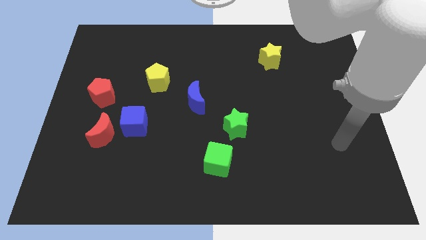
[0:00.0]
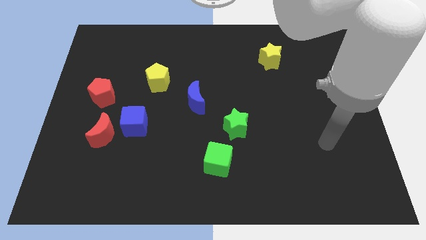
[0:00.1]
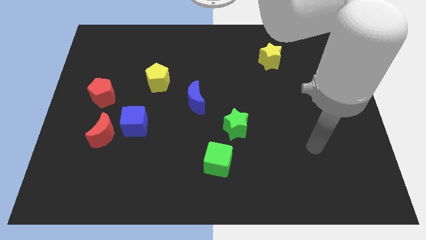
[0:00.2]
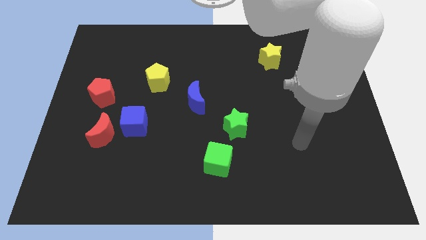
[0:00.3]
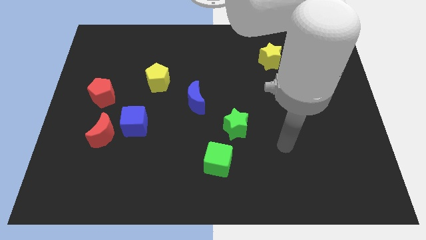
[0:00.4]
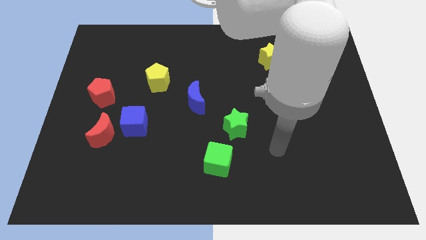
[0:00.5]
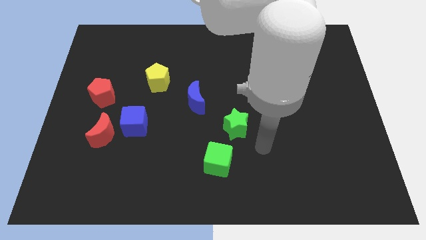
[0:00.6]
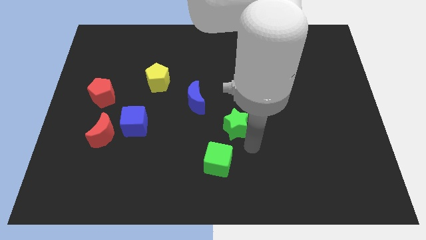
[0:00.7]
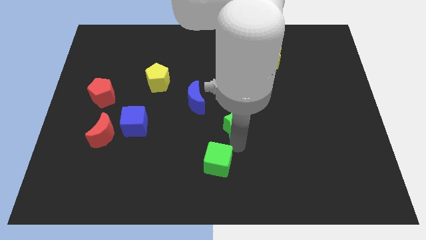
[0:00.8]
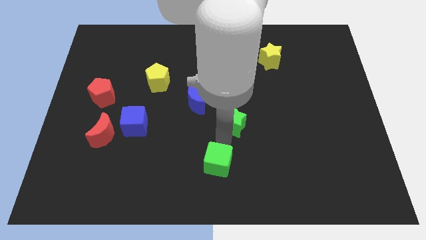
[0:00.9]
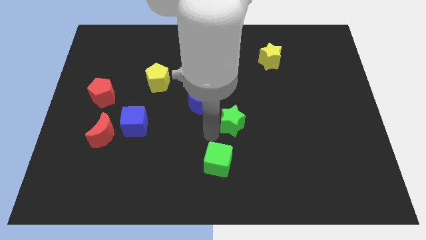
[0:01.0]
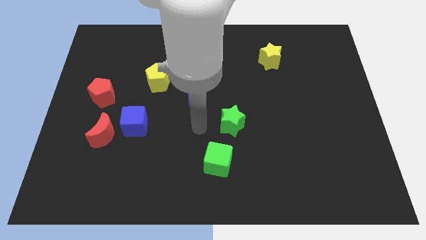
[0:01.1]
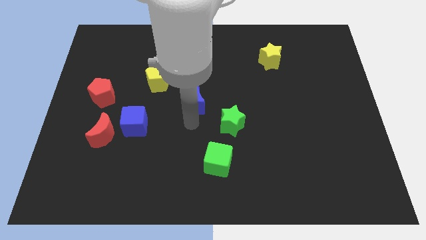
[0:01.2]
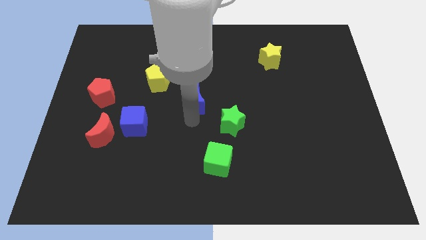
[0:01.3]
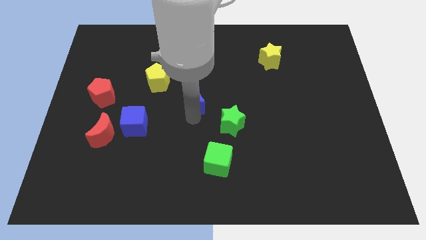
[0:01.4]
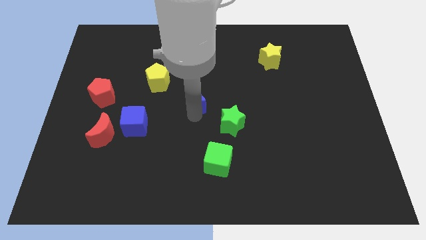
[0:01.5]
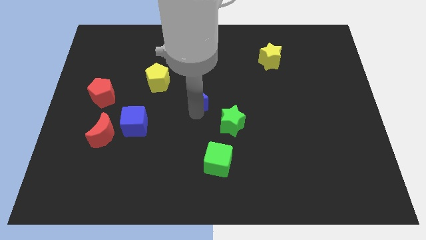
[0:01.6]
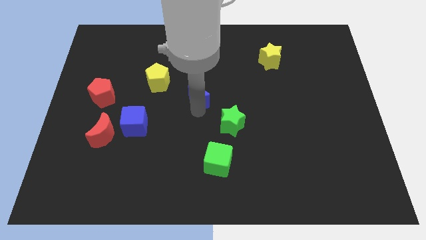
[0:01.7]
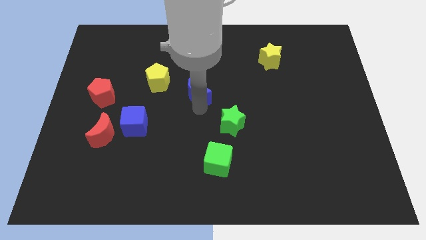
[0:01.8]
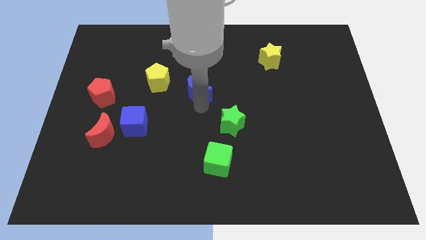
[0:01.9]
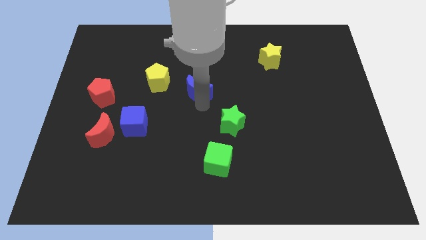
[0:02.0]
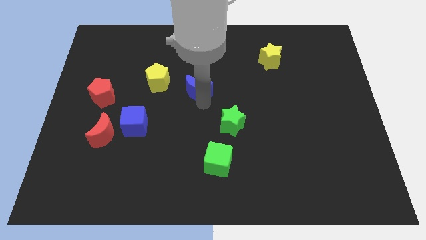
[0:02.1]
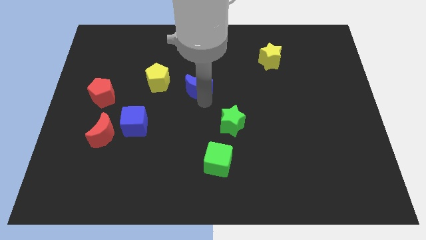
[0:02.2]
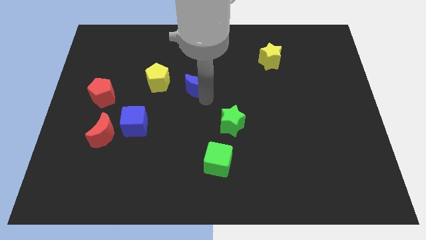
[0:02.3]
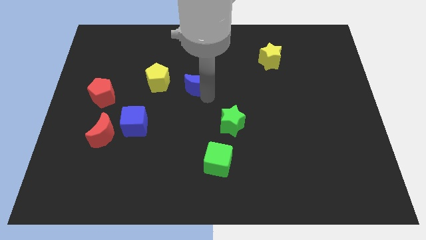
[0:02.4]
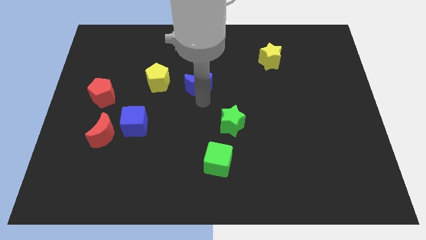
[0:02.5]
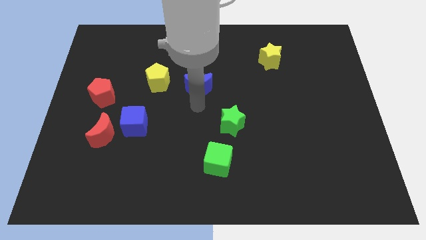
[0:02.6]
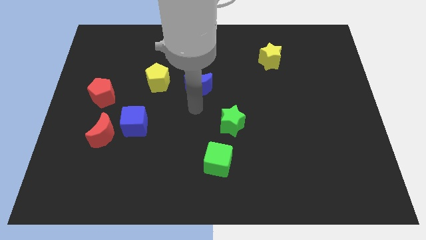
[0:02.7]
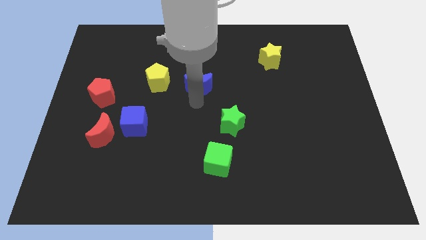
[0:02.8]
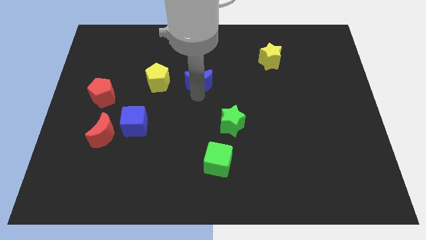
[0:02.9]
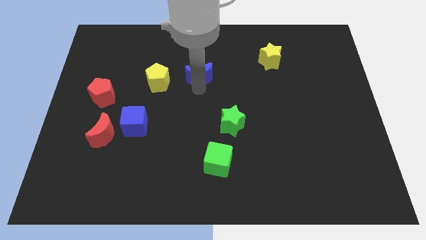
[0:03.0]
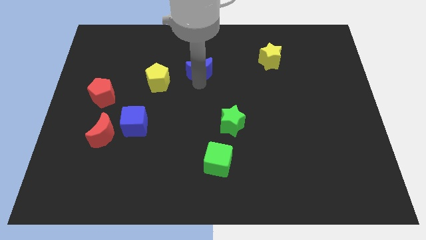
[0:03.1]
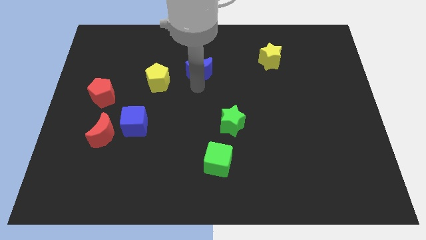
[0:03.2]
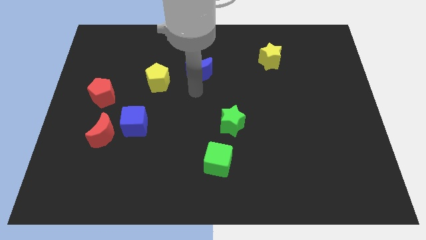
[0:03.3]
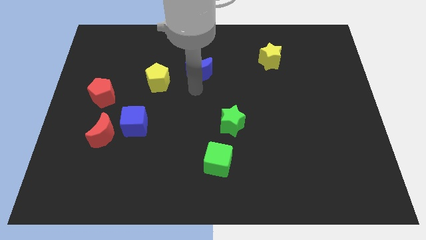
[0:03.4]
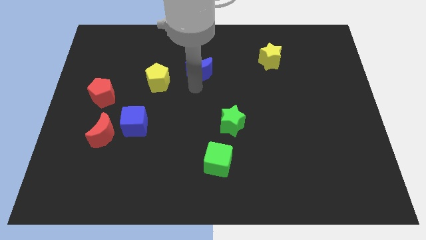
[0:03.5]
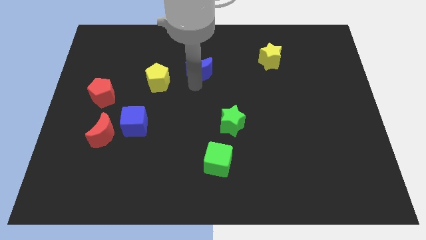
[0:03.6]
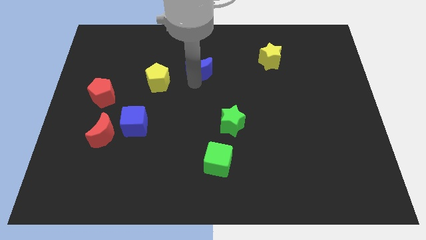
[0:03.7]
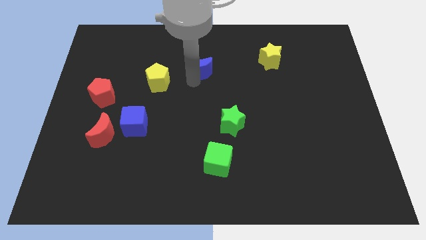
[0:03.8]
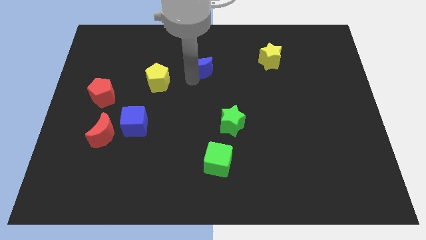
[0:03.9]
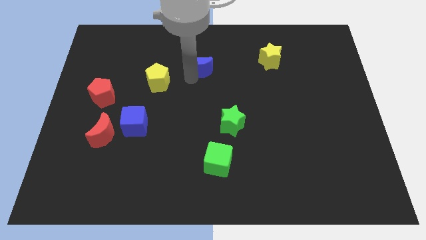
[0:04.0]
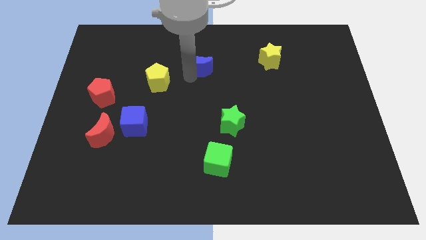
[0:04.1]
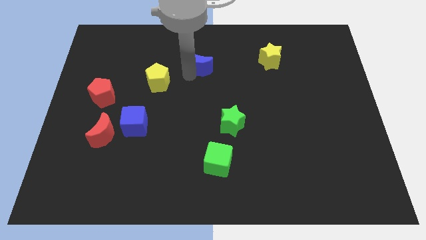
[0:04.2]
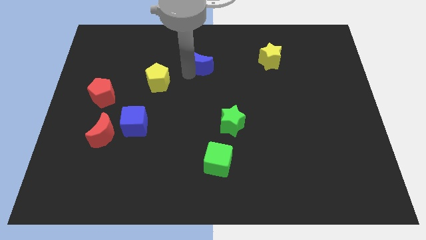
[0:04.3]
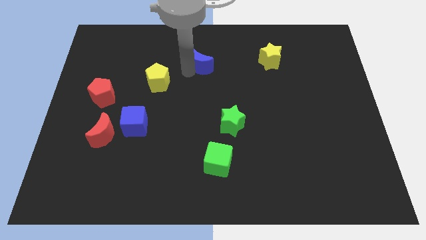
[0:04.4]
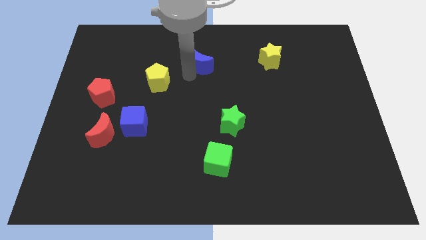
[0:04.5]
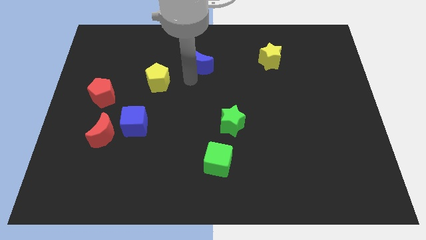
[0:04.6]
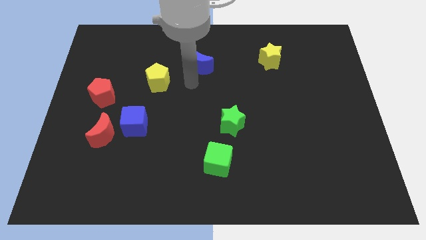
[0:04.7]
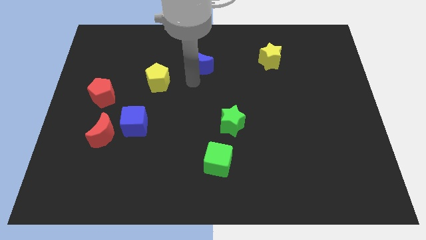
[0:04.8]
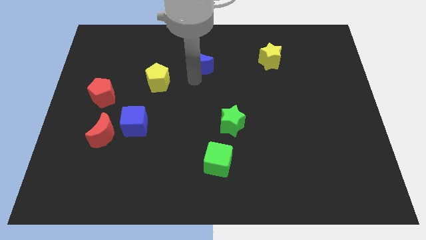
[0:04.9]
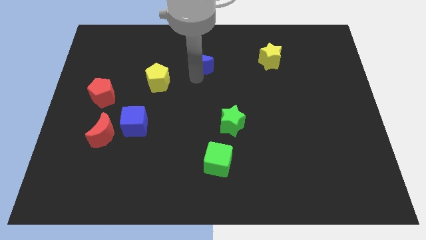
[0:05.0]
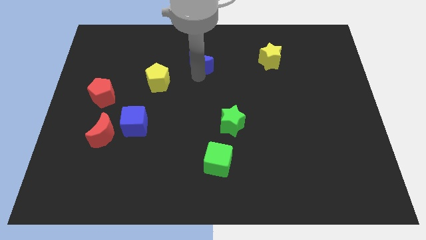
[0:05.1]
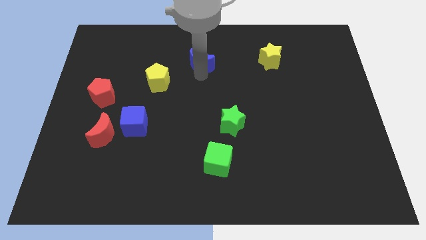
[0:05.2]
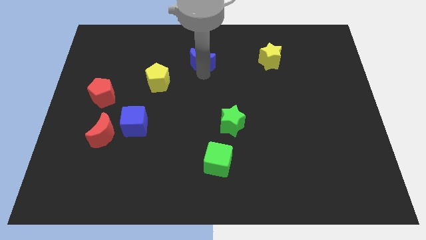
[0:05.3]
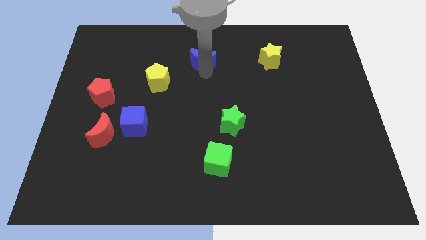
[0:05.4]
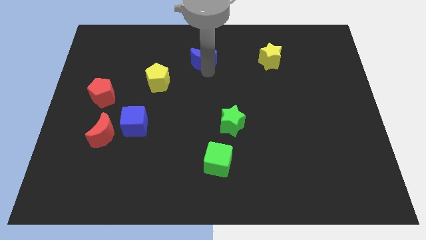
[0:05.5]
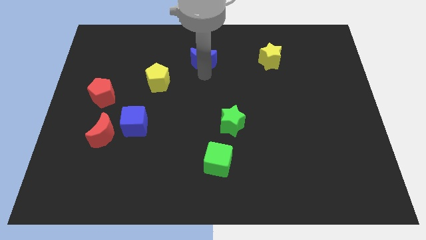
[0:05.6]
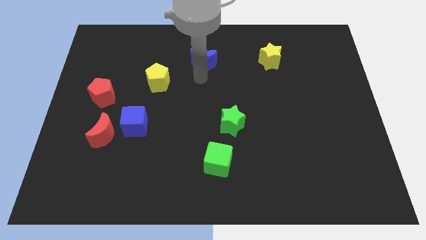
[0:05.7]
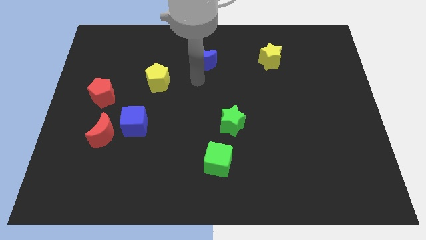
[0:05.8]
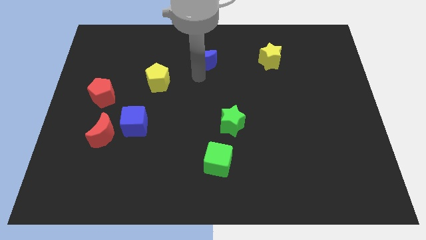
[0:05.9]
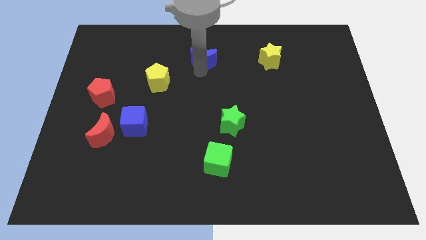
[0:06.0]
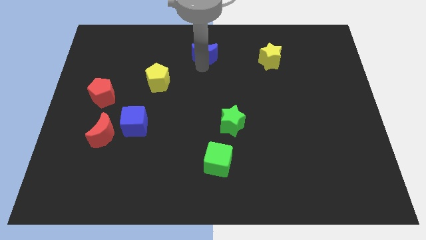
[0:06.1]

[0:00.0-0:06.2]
push the blue moon to the top side
